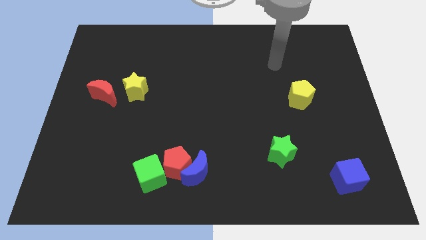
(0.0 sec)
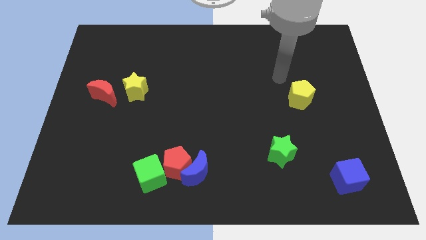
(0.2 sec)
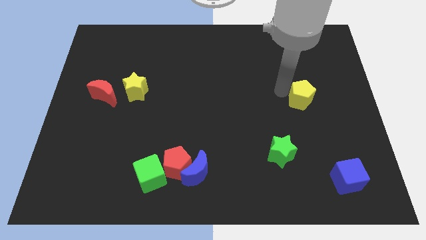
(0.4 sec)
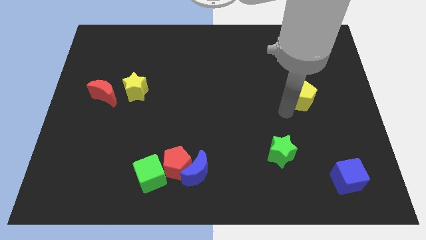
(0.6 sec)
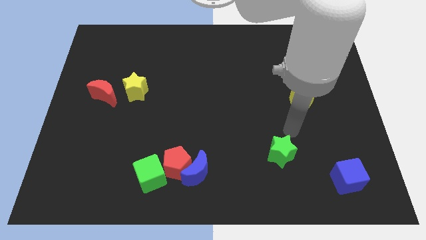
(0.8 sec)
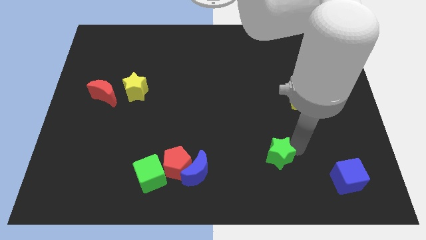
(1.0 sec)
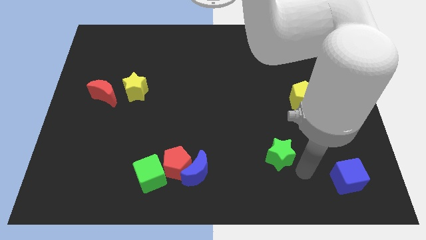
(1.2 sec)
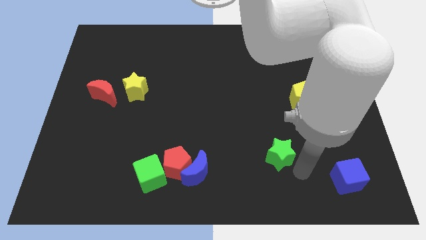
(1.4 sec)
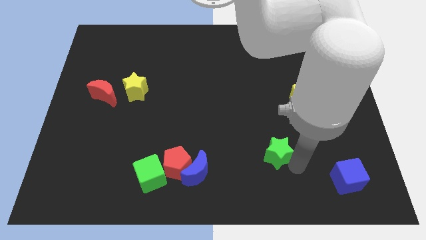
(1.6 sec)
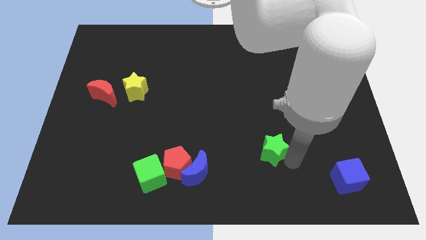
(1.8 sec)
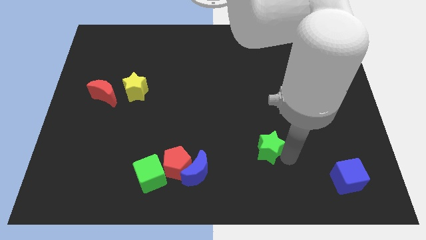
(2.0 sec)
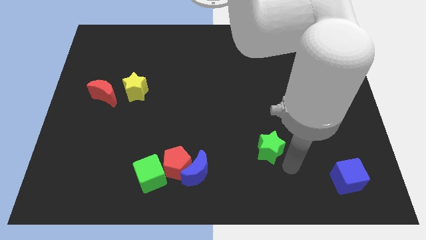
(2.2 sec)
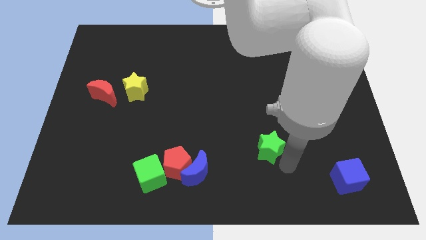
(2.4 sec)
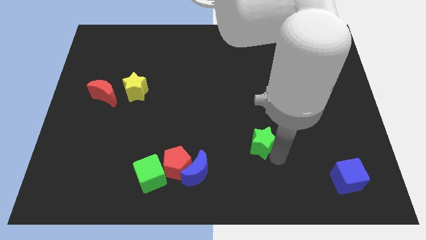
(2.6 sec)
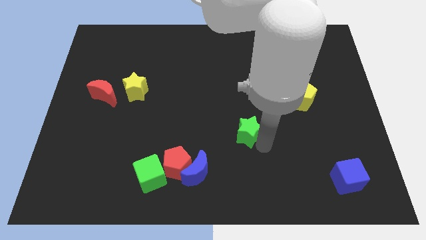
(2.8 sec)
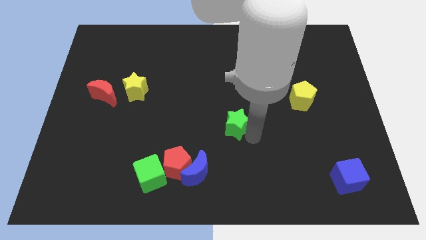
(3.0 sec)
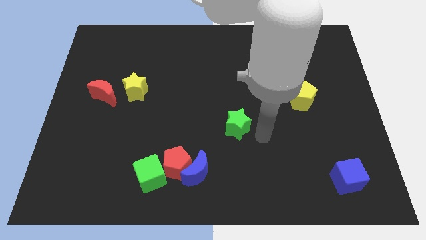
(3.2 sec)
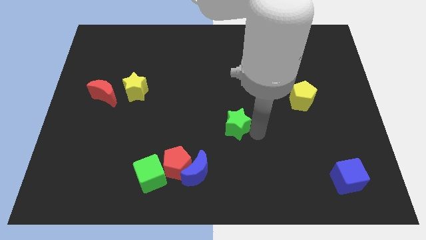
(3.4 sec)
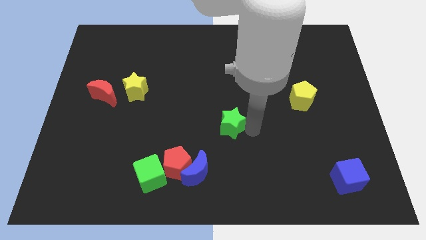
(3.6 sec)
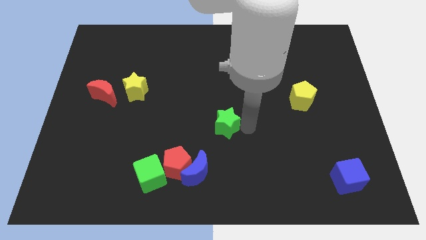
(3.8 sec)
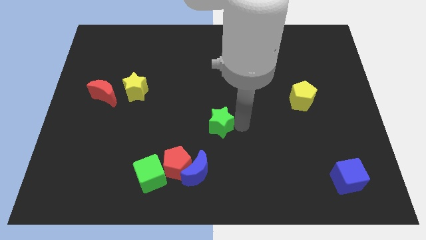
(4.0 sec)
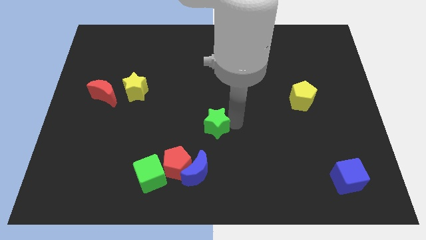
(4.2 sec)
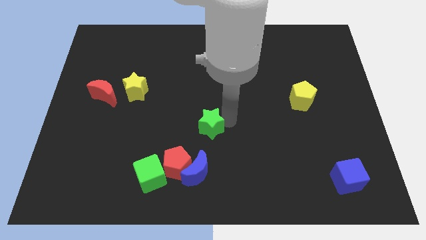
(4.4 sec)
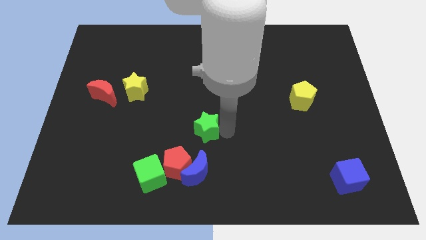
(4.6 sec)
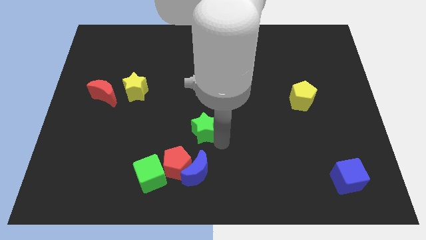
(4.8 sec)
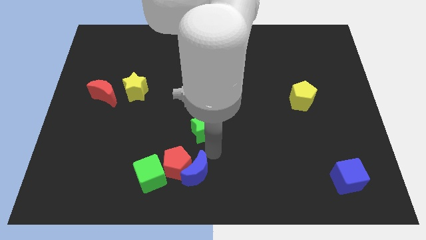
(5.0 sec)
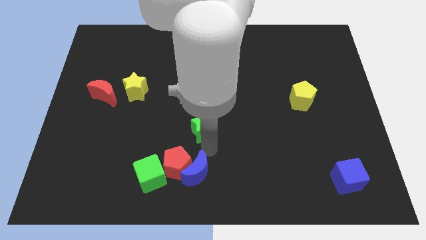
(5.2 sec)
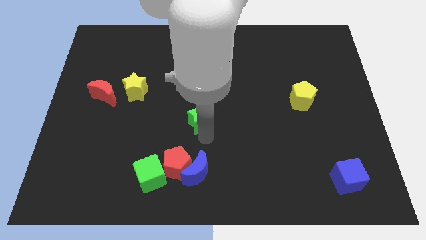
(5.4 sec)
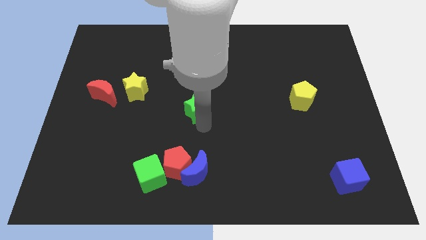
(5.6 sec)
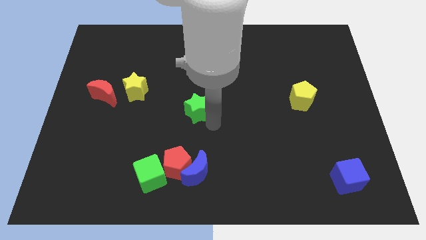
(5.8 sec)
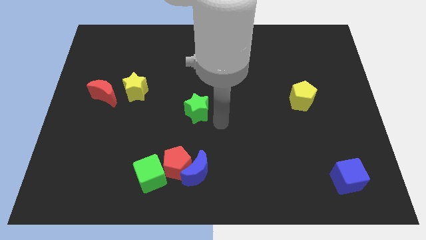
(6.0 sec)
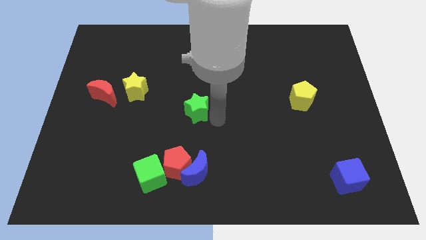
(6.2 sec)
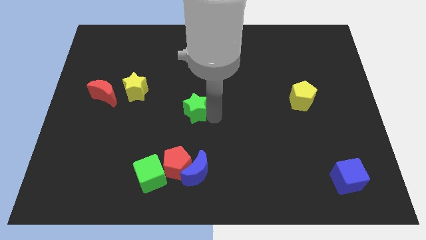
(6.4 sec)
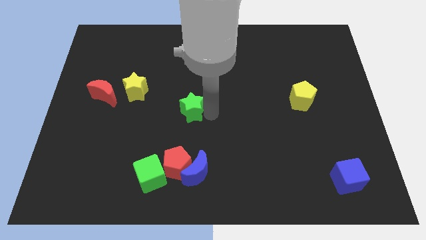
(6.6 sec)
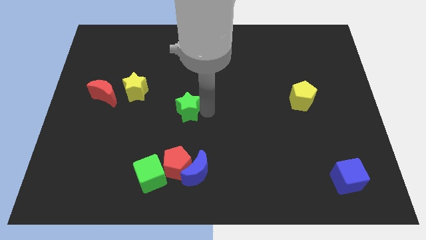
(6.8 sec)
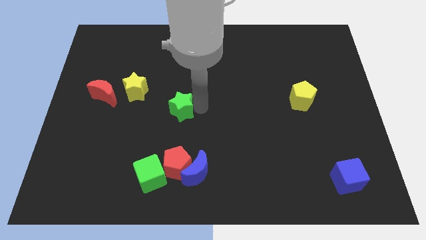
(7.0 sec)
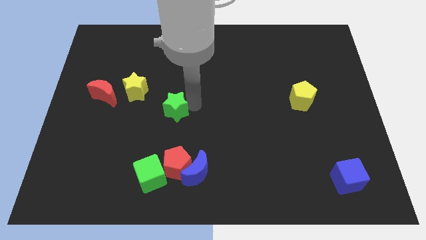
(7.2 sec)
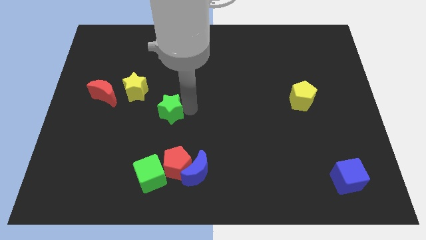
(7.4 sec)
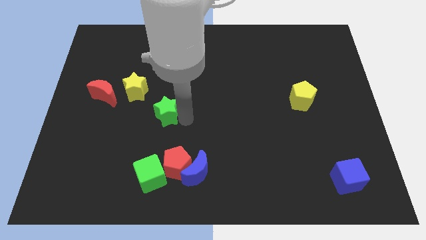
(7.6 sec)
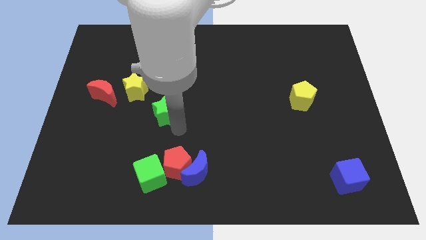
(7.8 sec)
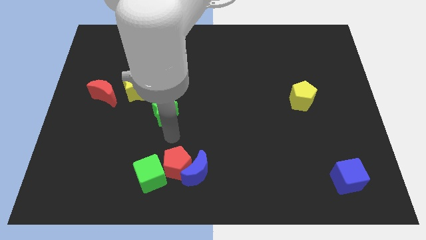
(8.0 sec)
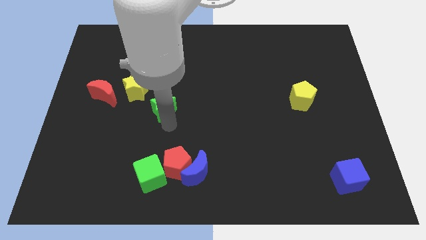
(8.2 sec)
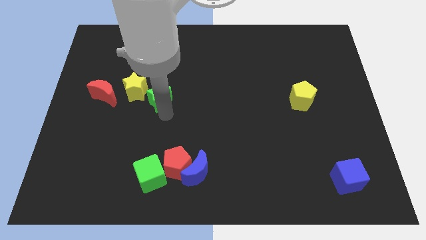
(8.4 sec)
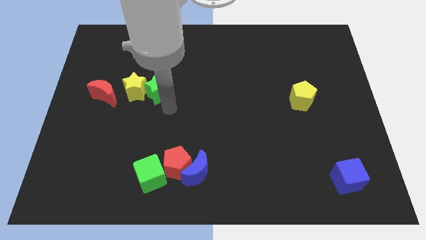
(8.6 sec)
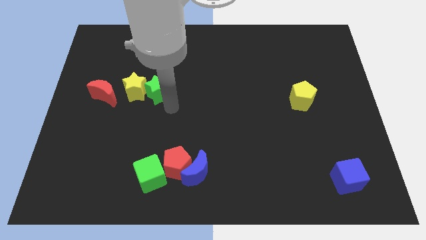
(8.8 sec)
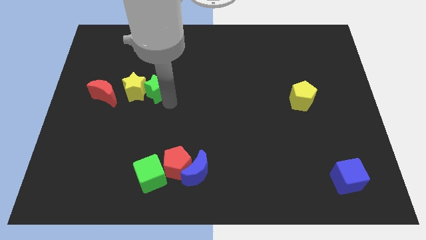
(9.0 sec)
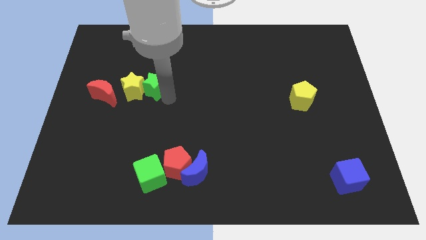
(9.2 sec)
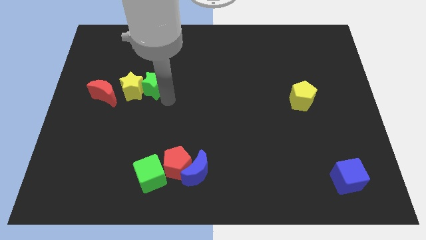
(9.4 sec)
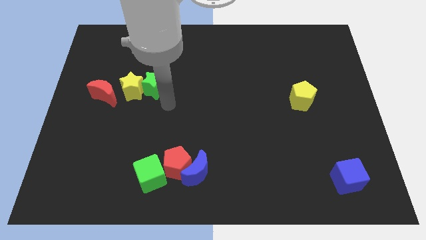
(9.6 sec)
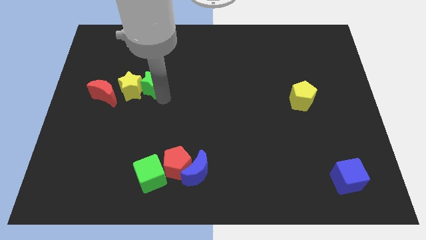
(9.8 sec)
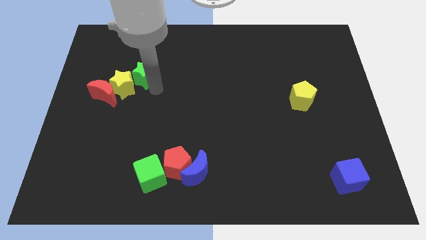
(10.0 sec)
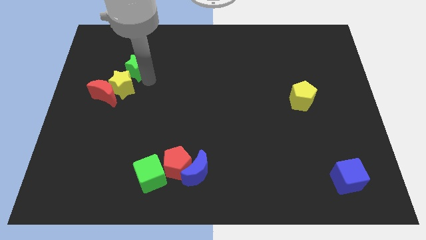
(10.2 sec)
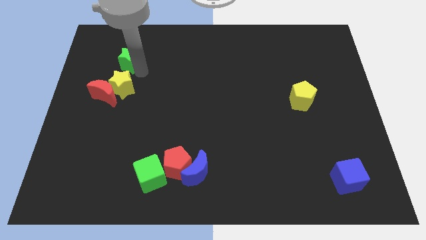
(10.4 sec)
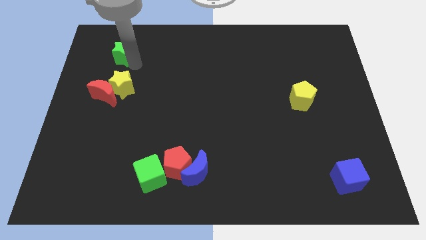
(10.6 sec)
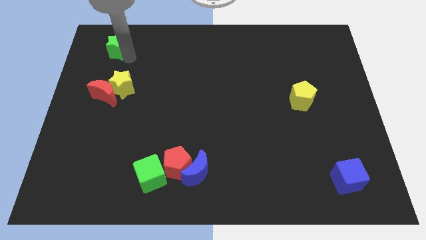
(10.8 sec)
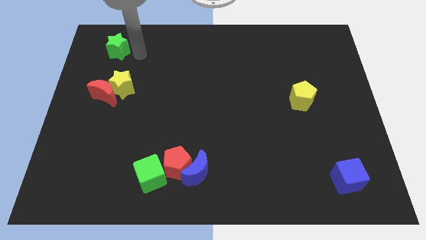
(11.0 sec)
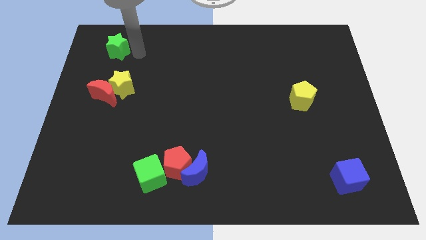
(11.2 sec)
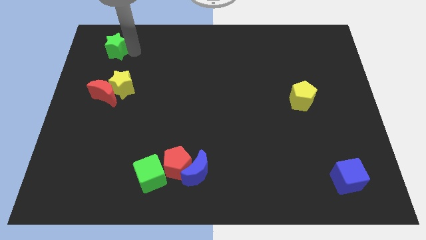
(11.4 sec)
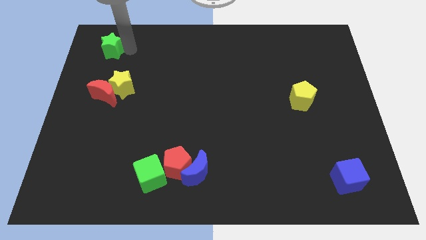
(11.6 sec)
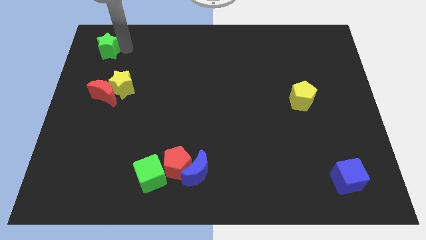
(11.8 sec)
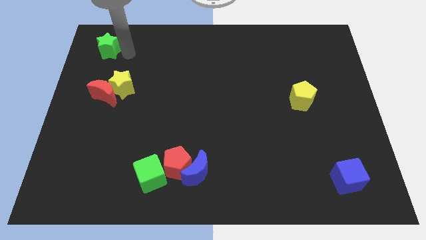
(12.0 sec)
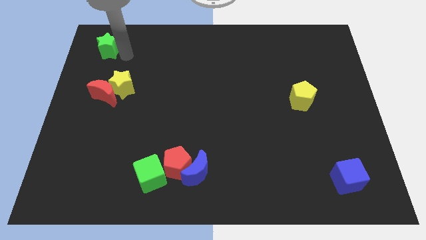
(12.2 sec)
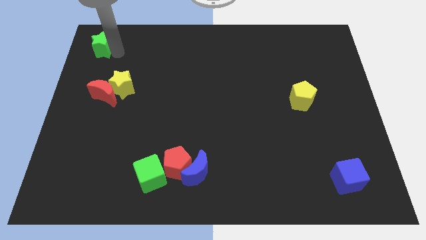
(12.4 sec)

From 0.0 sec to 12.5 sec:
put the green star to the upper left corner

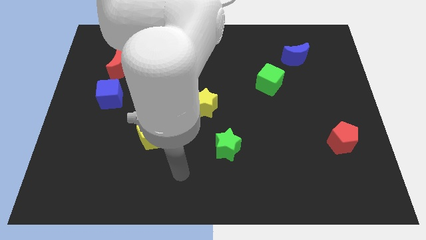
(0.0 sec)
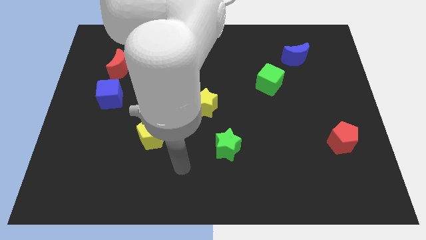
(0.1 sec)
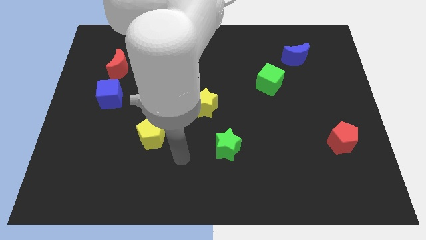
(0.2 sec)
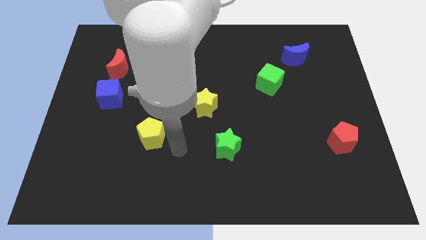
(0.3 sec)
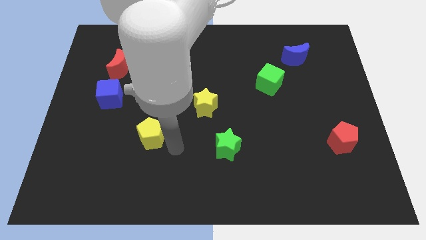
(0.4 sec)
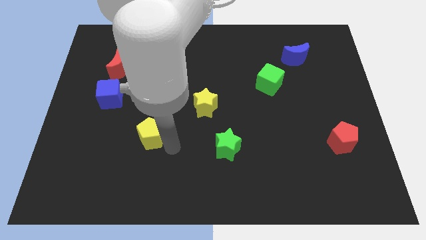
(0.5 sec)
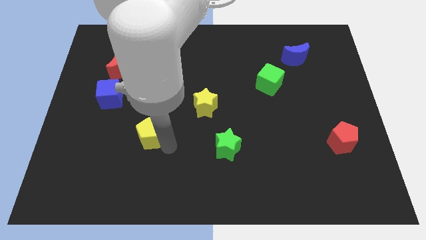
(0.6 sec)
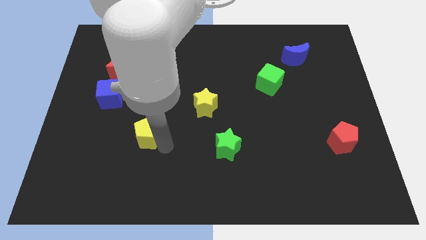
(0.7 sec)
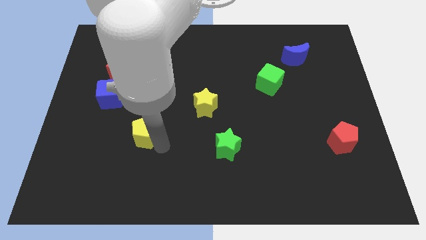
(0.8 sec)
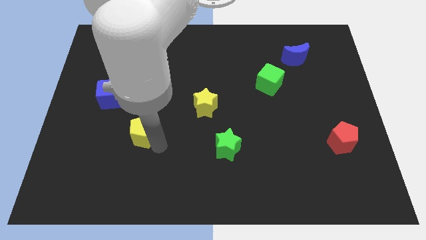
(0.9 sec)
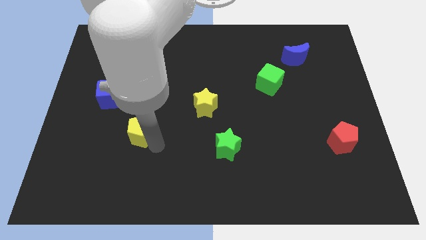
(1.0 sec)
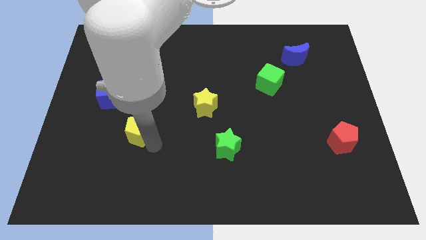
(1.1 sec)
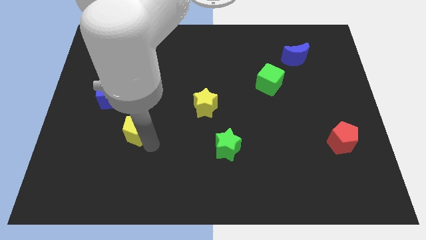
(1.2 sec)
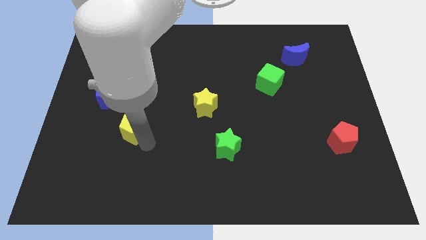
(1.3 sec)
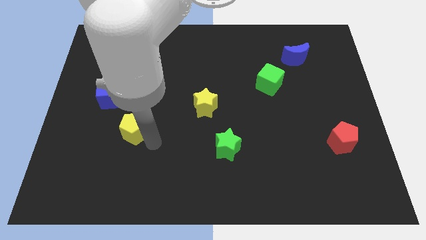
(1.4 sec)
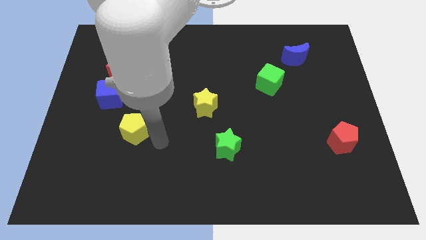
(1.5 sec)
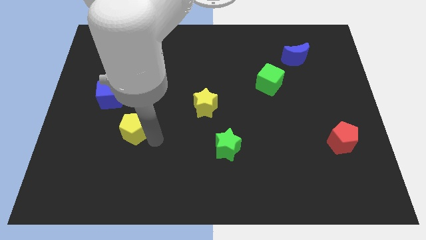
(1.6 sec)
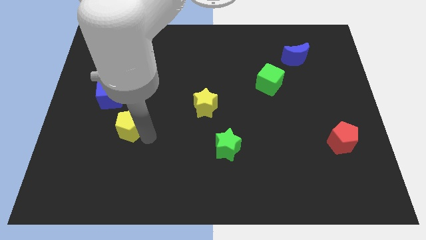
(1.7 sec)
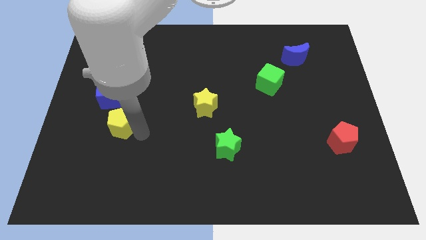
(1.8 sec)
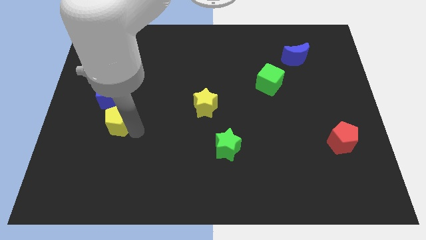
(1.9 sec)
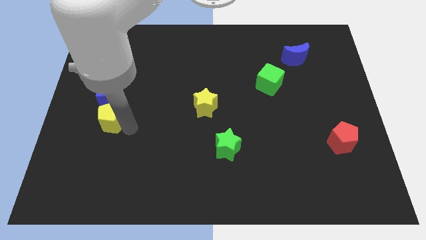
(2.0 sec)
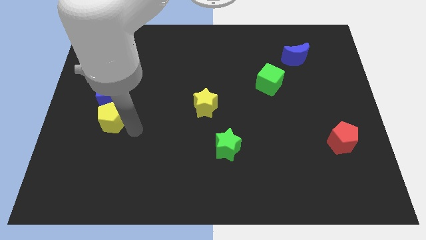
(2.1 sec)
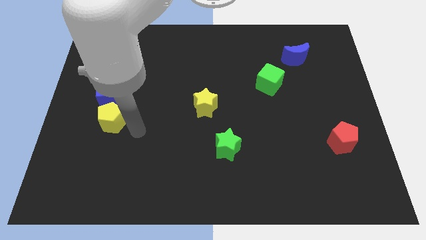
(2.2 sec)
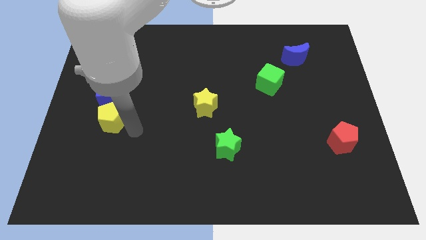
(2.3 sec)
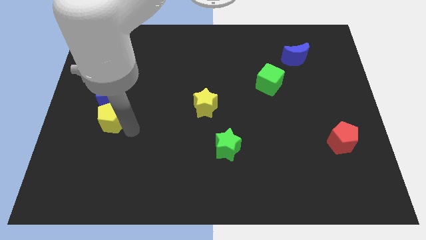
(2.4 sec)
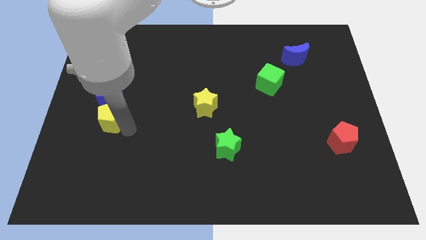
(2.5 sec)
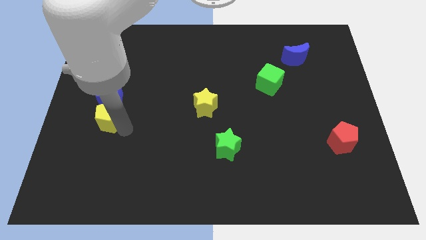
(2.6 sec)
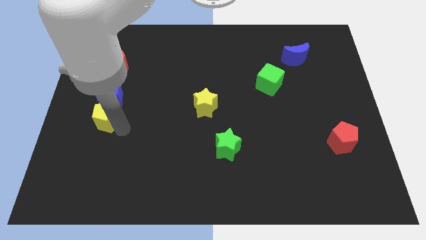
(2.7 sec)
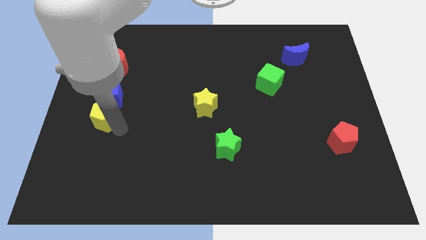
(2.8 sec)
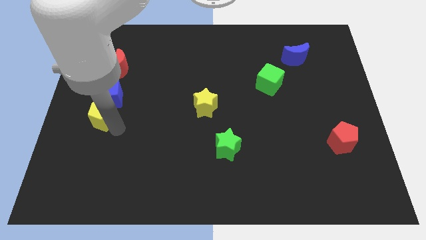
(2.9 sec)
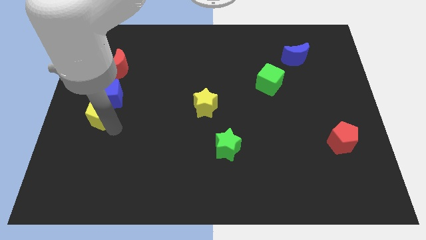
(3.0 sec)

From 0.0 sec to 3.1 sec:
move the yellow pentagon to the center left
